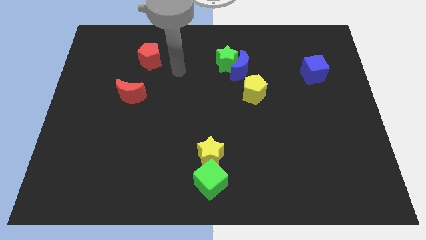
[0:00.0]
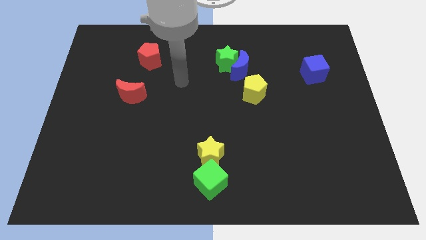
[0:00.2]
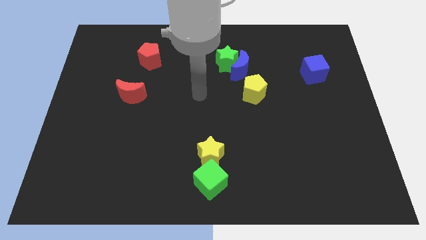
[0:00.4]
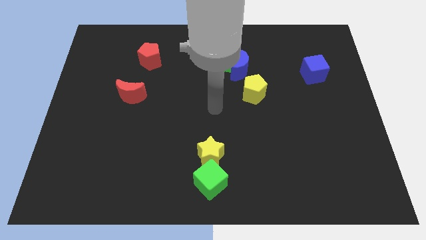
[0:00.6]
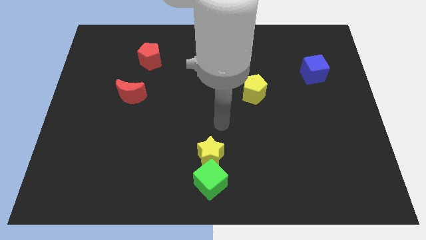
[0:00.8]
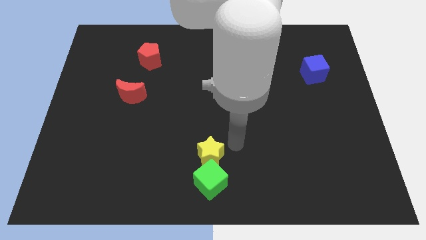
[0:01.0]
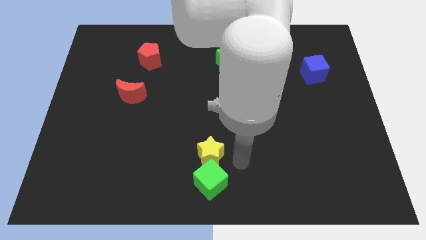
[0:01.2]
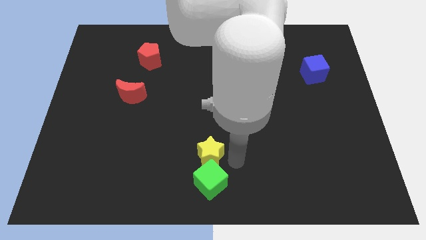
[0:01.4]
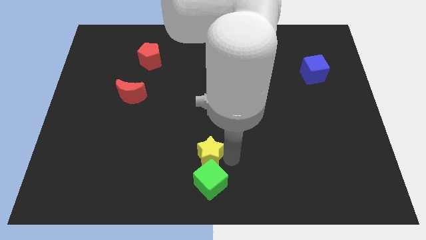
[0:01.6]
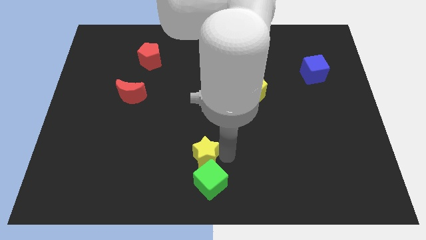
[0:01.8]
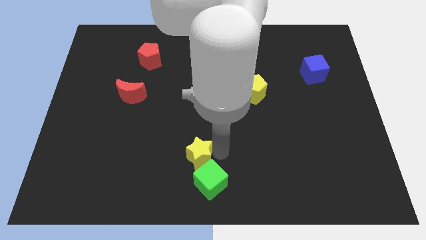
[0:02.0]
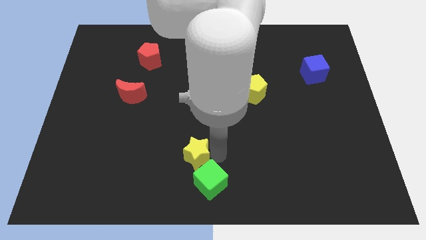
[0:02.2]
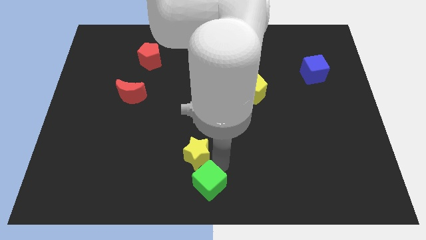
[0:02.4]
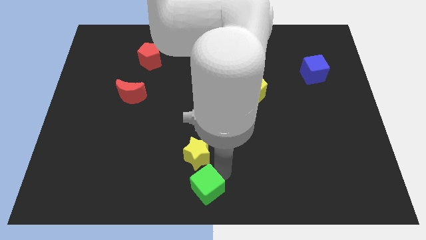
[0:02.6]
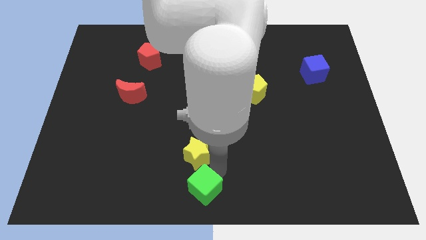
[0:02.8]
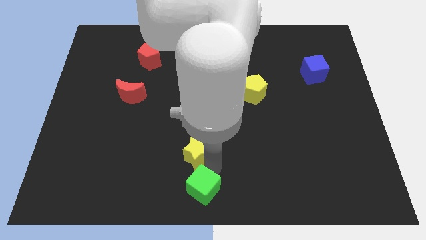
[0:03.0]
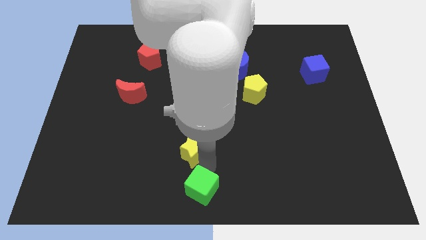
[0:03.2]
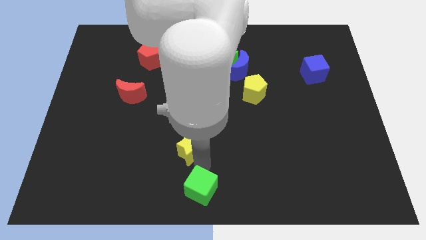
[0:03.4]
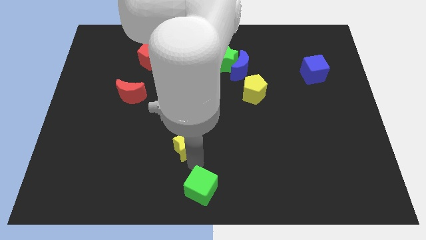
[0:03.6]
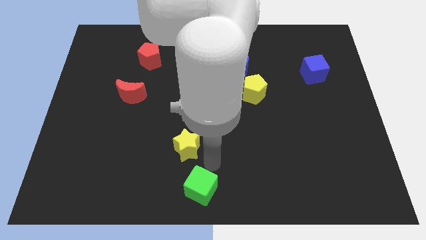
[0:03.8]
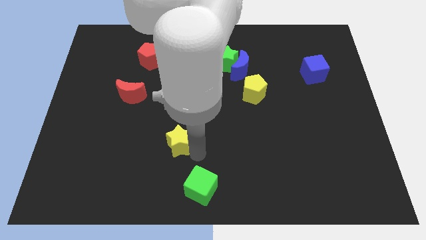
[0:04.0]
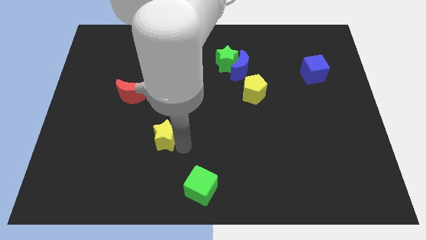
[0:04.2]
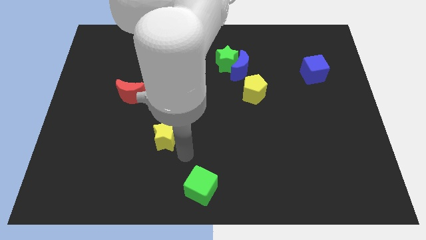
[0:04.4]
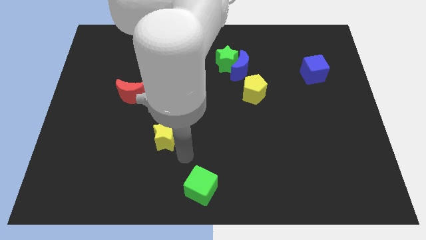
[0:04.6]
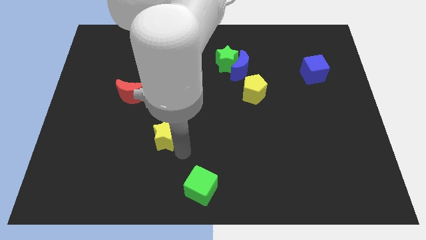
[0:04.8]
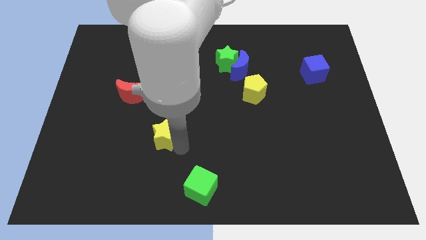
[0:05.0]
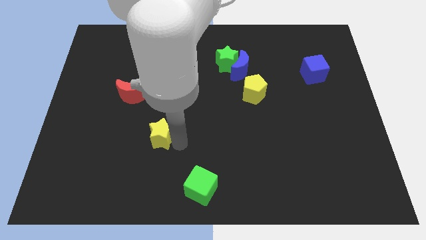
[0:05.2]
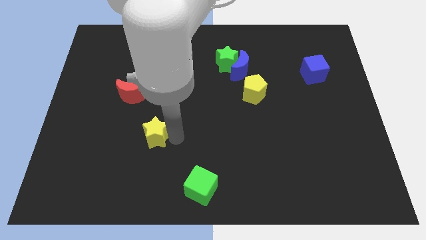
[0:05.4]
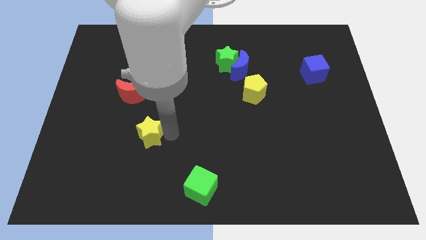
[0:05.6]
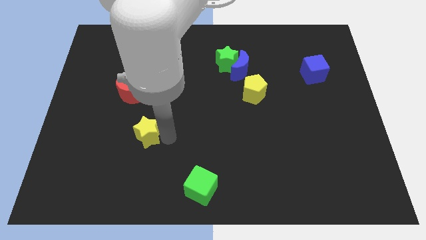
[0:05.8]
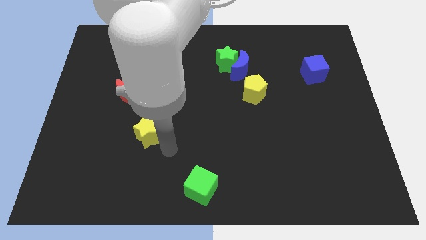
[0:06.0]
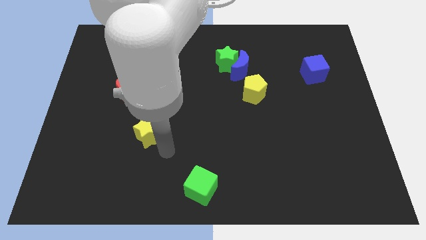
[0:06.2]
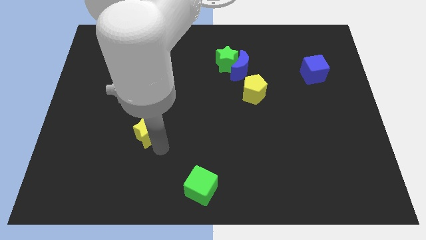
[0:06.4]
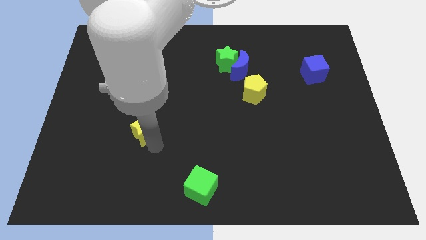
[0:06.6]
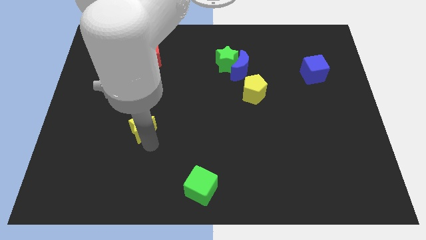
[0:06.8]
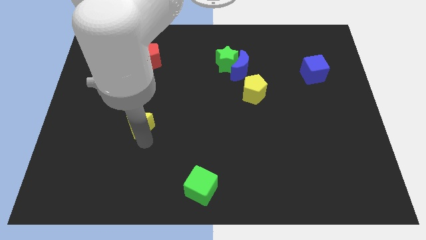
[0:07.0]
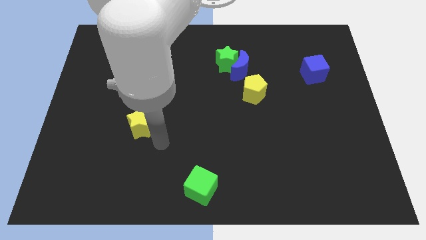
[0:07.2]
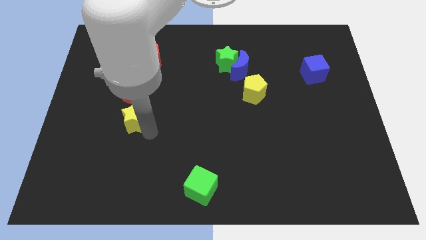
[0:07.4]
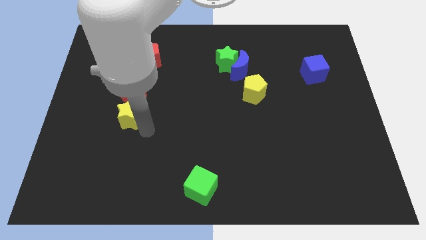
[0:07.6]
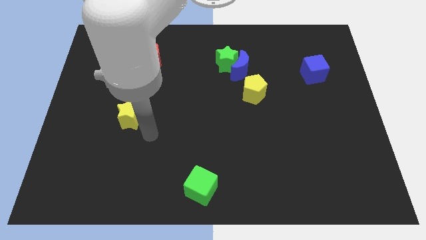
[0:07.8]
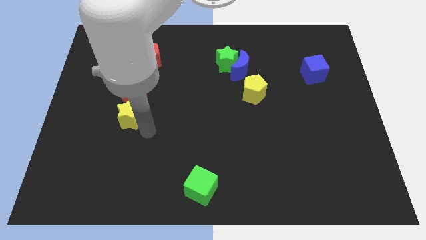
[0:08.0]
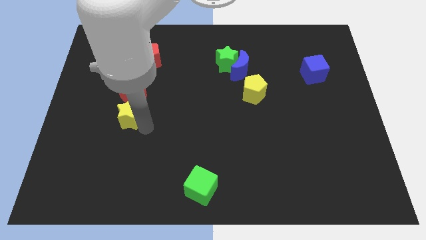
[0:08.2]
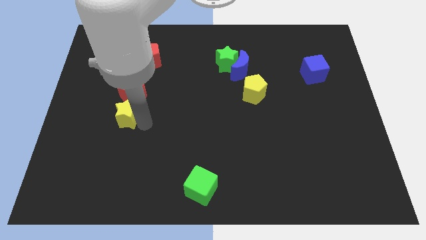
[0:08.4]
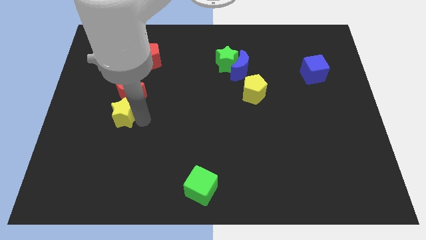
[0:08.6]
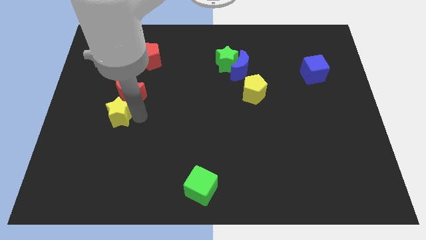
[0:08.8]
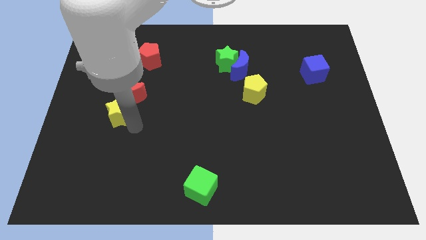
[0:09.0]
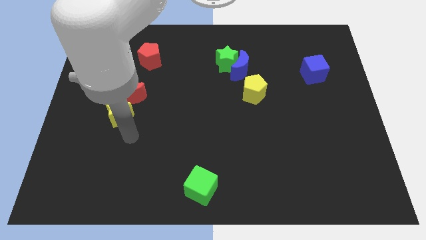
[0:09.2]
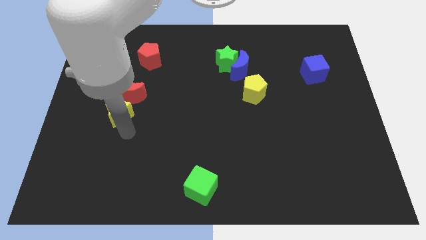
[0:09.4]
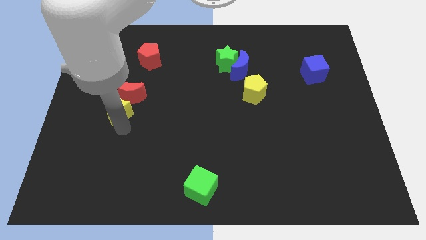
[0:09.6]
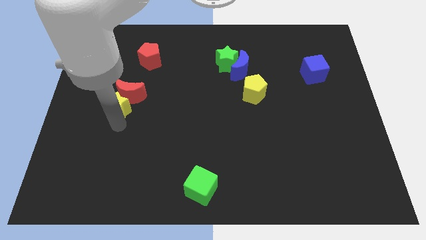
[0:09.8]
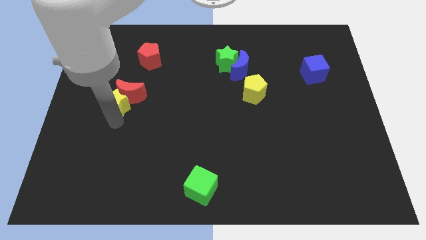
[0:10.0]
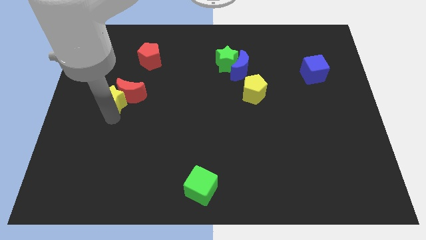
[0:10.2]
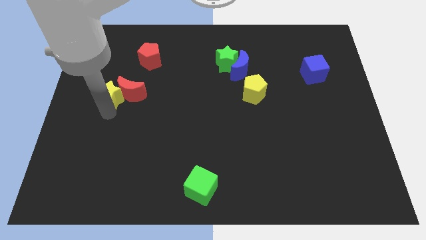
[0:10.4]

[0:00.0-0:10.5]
push the yellow star to the top left side of the red moon

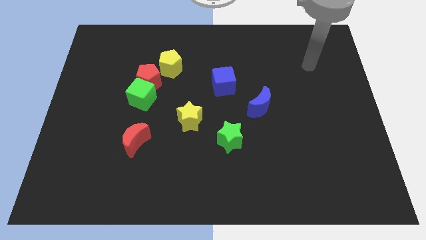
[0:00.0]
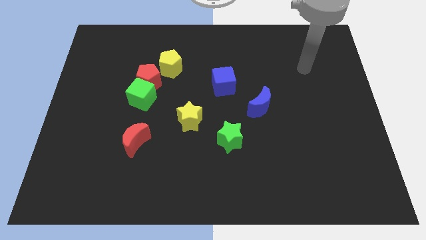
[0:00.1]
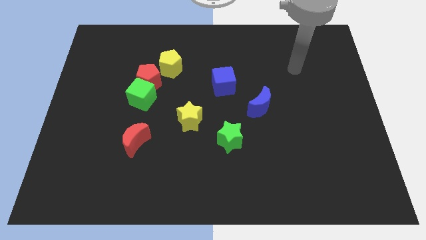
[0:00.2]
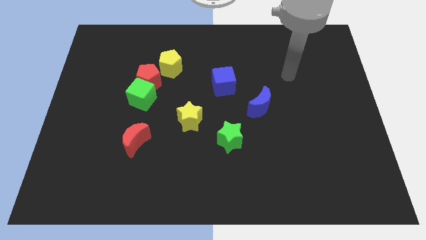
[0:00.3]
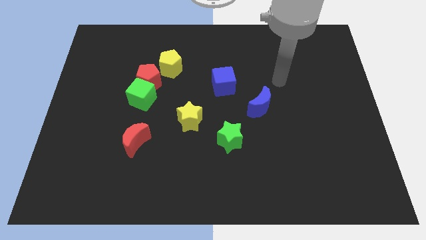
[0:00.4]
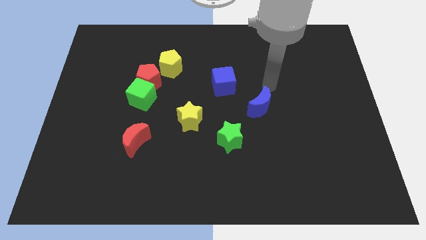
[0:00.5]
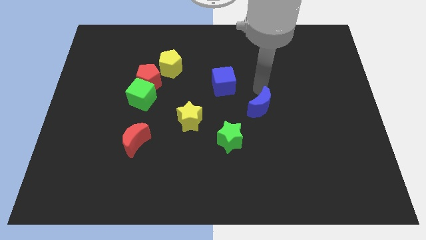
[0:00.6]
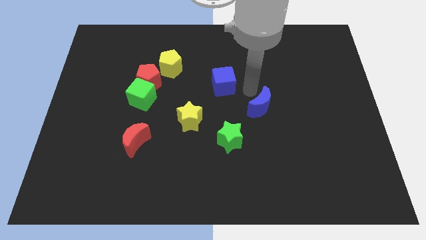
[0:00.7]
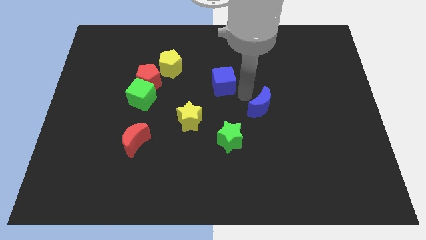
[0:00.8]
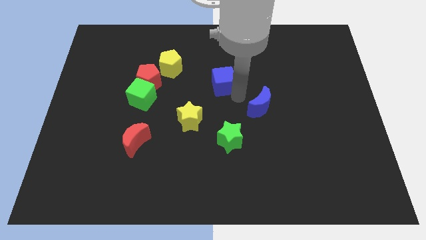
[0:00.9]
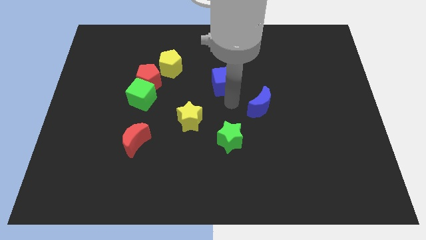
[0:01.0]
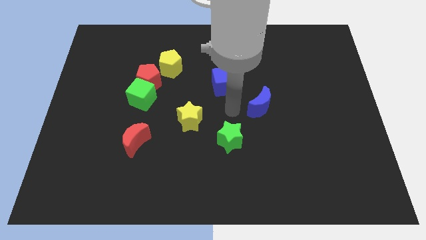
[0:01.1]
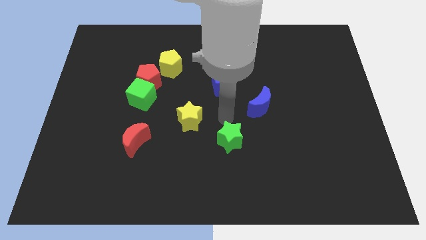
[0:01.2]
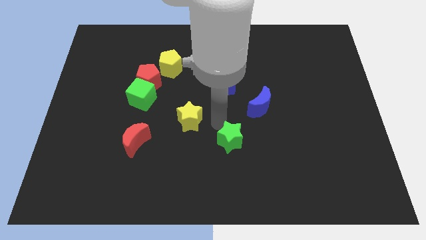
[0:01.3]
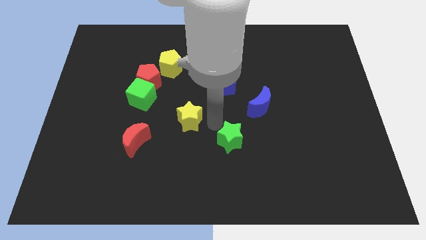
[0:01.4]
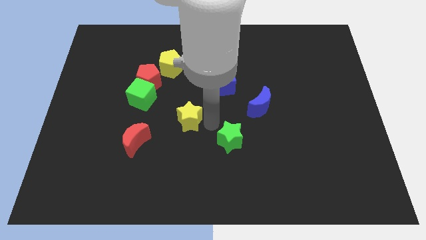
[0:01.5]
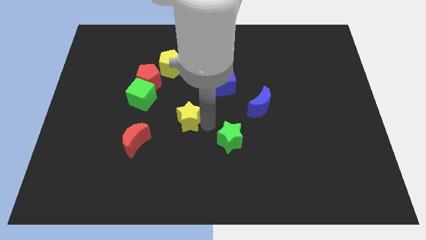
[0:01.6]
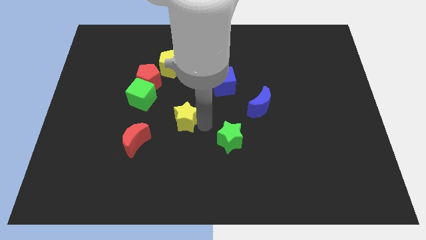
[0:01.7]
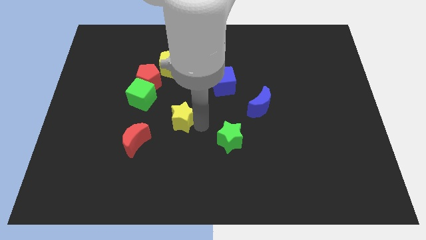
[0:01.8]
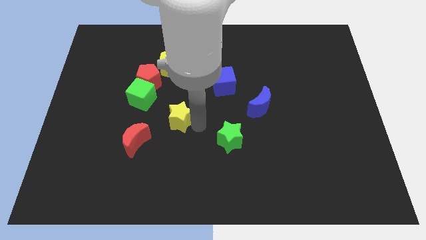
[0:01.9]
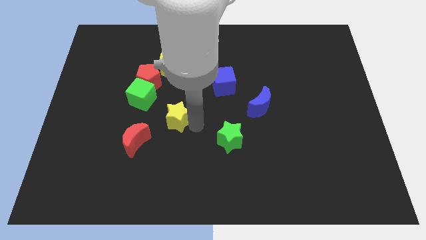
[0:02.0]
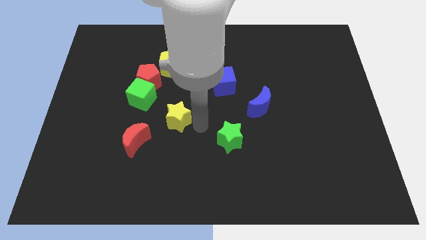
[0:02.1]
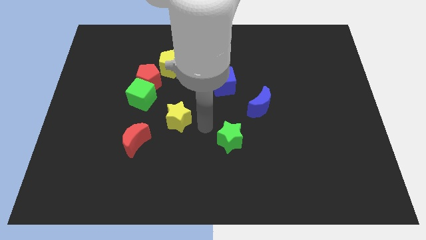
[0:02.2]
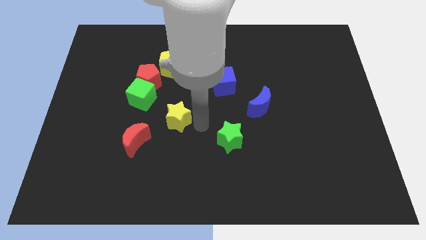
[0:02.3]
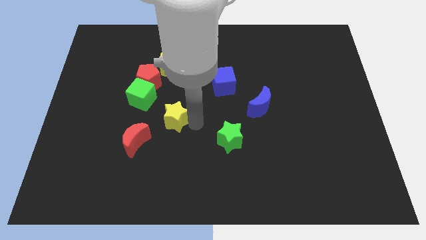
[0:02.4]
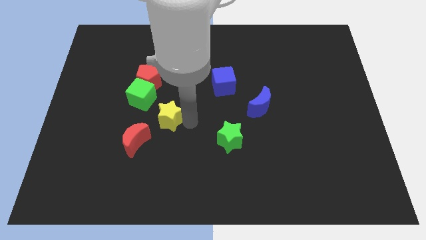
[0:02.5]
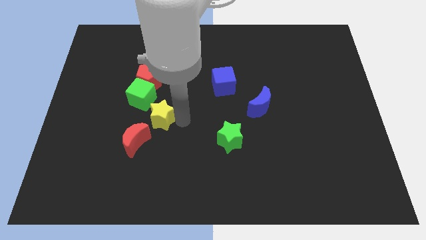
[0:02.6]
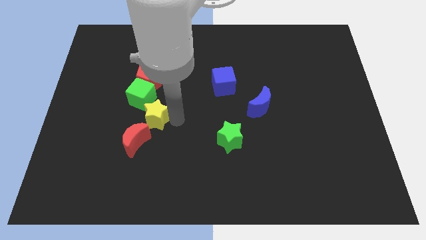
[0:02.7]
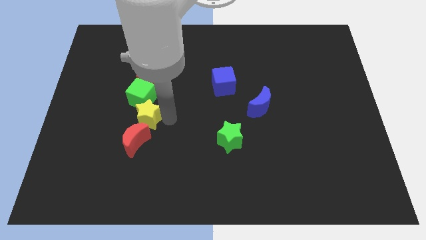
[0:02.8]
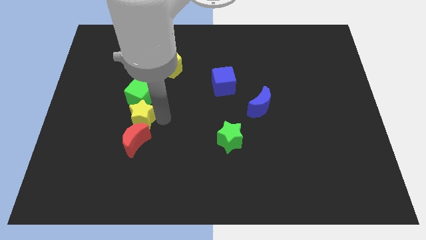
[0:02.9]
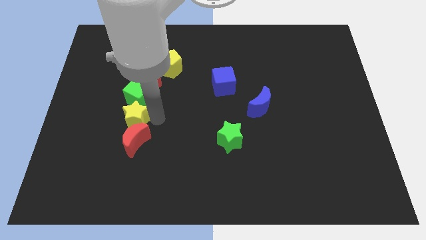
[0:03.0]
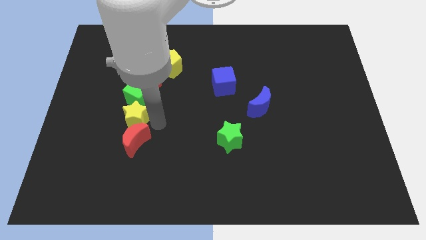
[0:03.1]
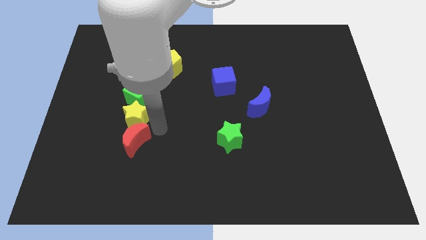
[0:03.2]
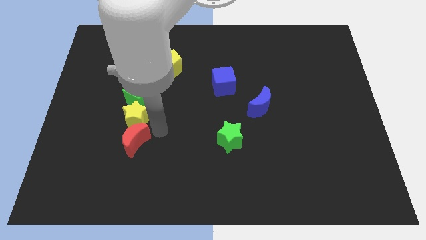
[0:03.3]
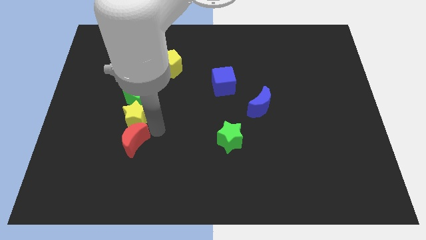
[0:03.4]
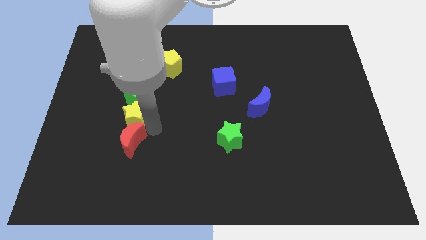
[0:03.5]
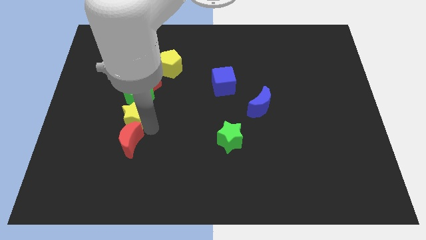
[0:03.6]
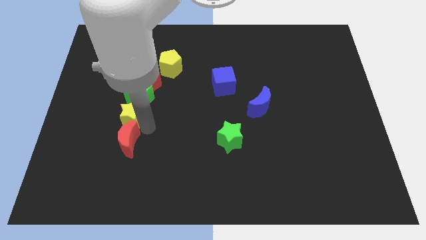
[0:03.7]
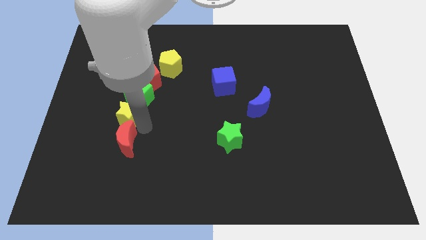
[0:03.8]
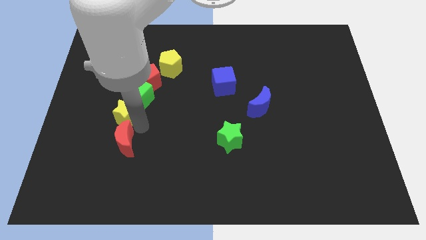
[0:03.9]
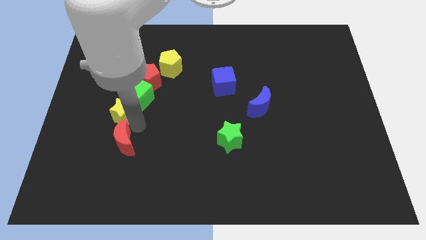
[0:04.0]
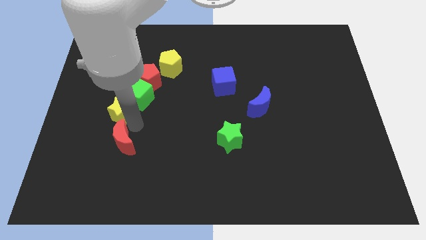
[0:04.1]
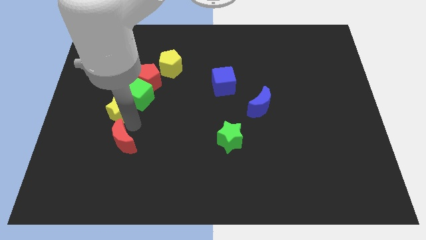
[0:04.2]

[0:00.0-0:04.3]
move the yellow star to the left side of the green cube
